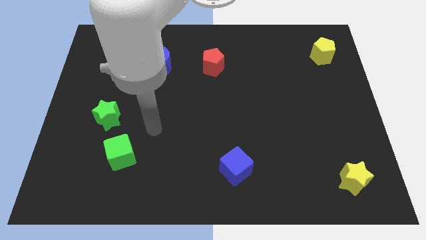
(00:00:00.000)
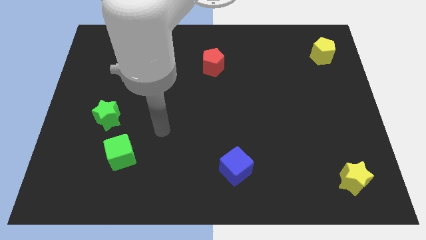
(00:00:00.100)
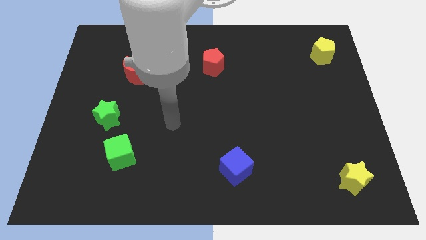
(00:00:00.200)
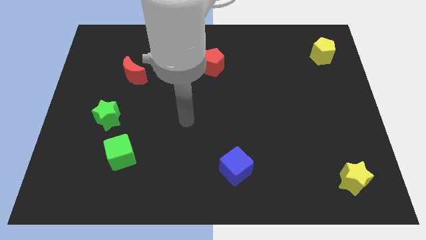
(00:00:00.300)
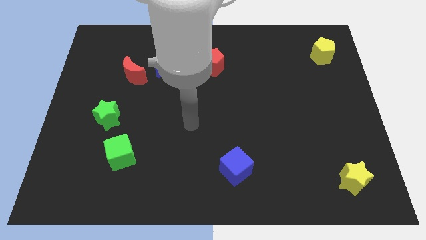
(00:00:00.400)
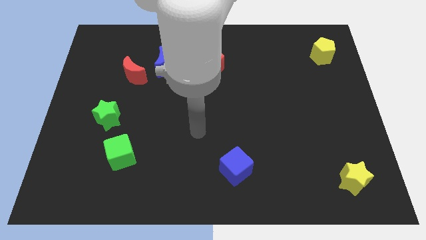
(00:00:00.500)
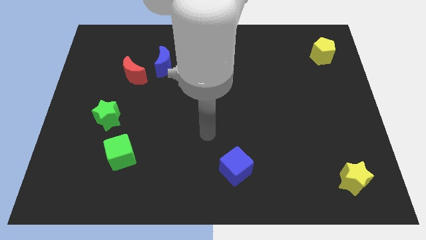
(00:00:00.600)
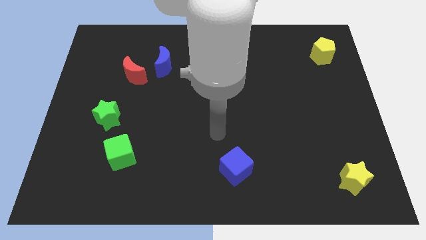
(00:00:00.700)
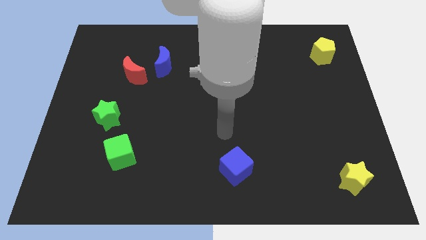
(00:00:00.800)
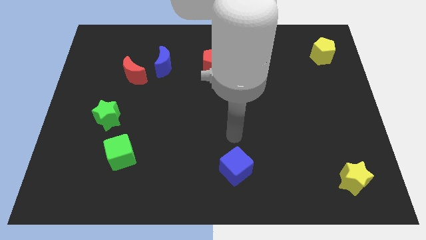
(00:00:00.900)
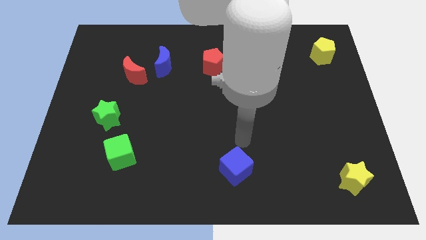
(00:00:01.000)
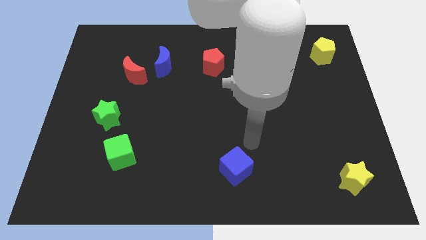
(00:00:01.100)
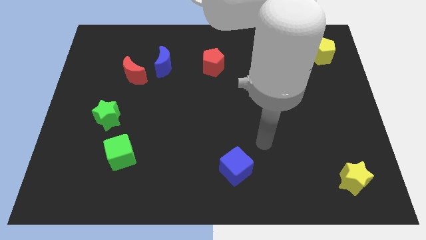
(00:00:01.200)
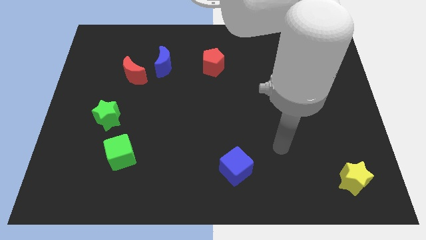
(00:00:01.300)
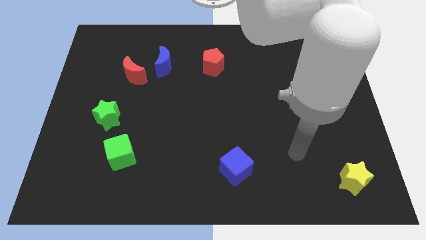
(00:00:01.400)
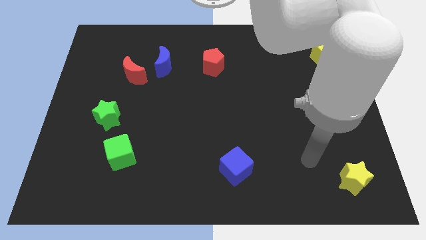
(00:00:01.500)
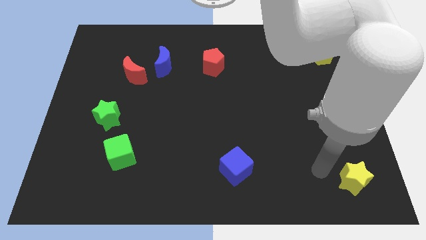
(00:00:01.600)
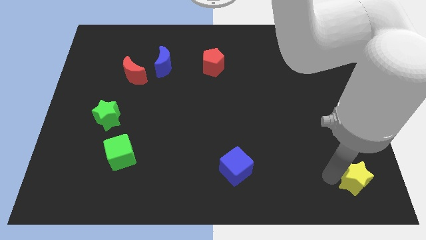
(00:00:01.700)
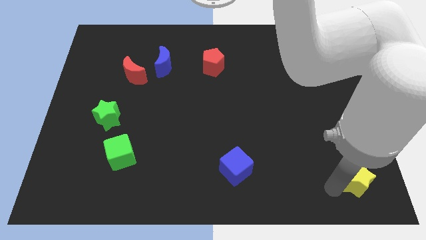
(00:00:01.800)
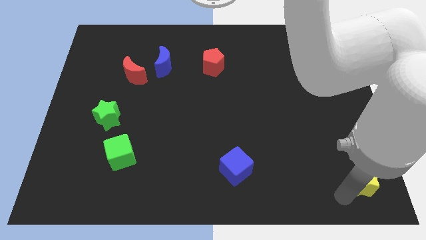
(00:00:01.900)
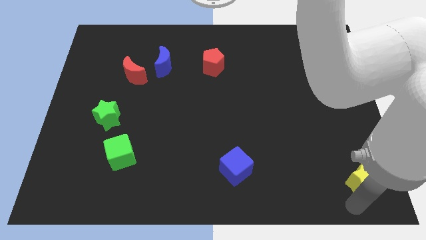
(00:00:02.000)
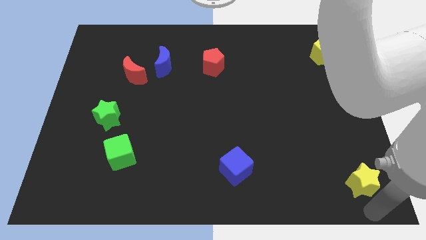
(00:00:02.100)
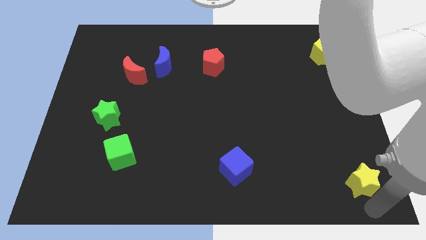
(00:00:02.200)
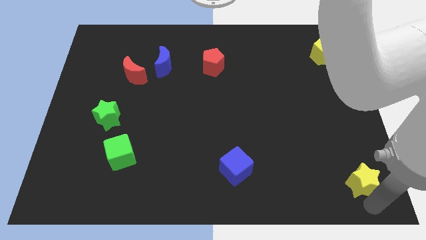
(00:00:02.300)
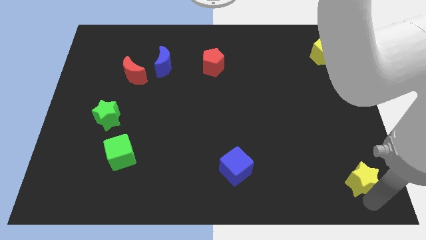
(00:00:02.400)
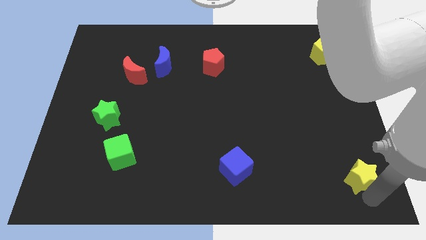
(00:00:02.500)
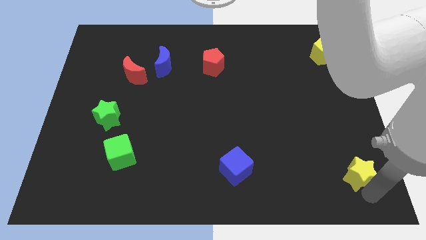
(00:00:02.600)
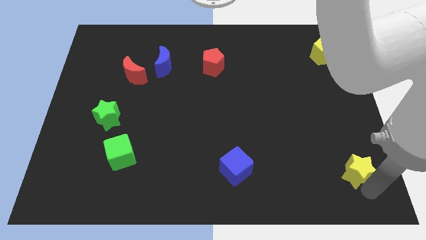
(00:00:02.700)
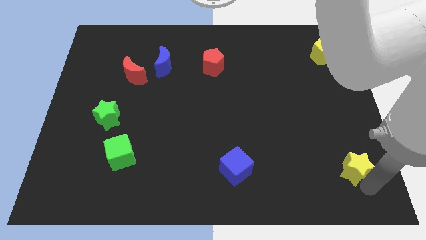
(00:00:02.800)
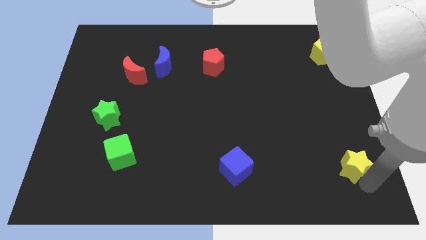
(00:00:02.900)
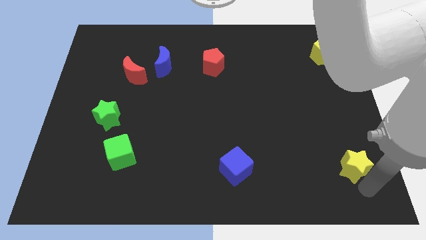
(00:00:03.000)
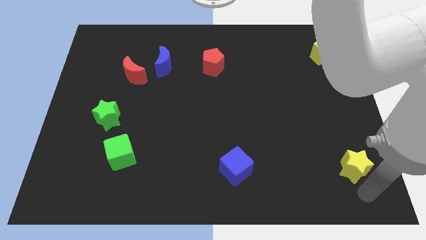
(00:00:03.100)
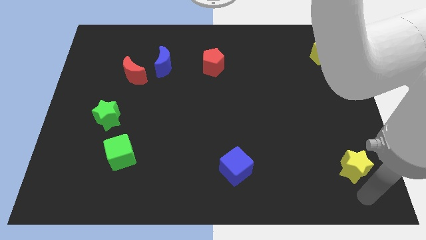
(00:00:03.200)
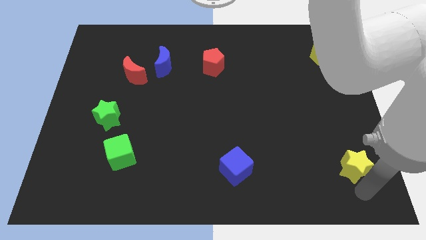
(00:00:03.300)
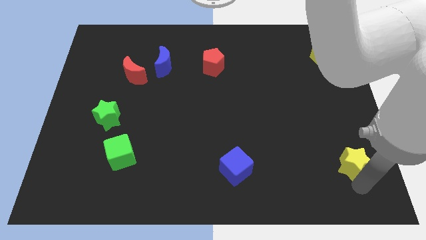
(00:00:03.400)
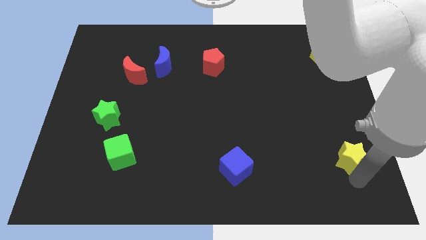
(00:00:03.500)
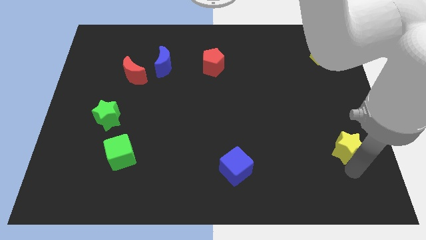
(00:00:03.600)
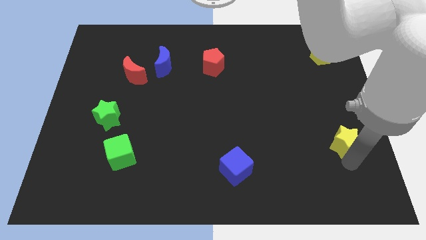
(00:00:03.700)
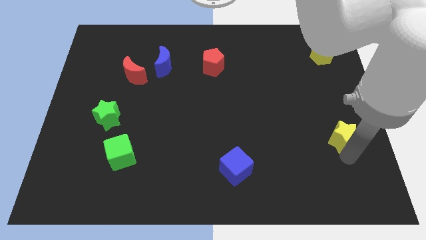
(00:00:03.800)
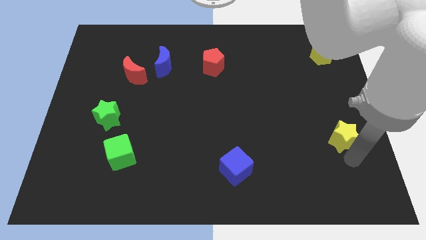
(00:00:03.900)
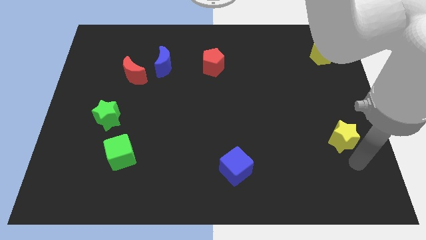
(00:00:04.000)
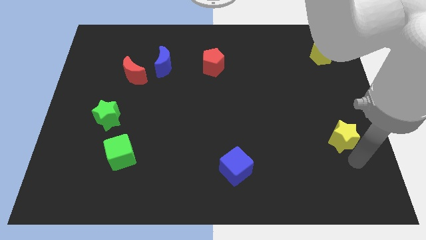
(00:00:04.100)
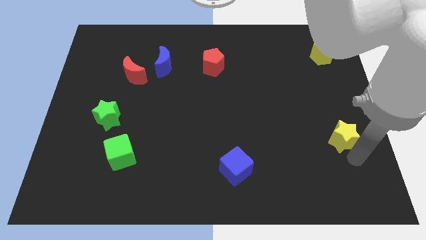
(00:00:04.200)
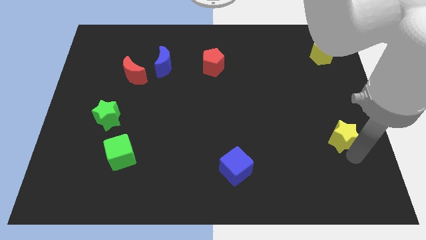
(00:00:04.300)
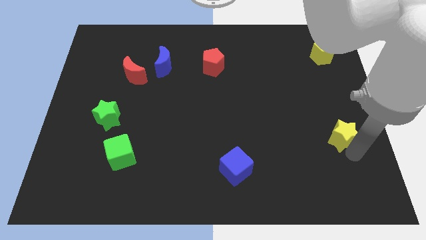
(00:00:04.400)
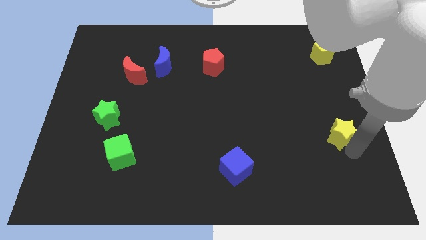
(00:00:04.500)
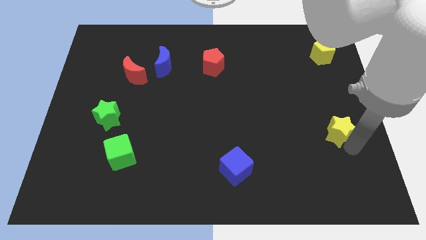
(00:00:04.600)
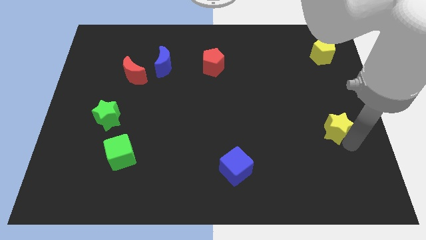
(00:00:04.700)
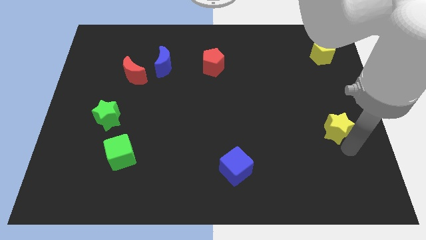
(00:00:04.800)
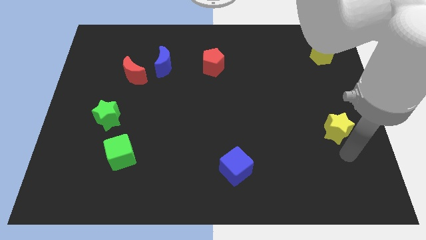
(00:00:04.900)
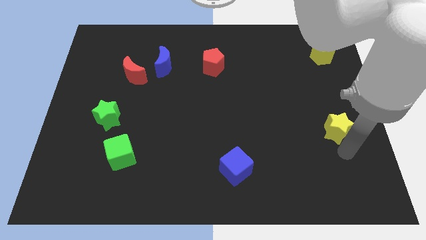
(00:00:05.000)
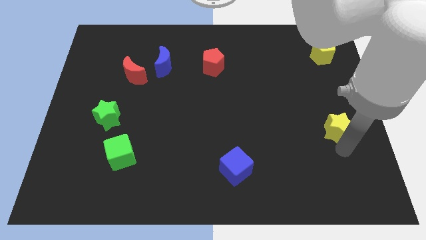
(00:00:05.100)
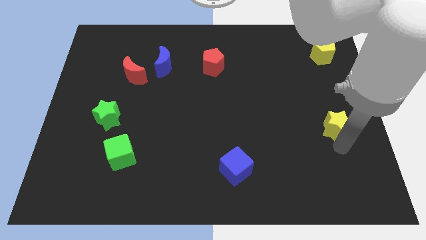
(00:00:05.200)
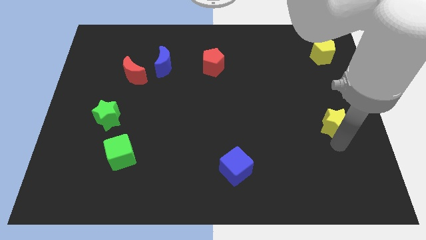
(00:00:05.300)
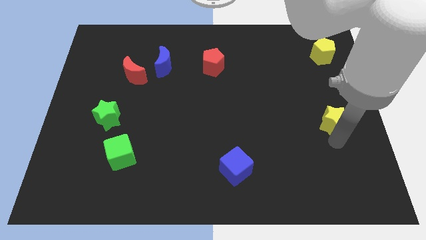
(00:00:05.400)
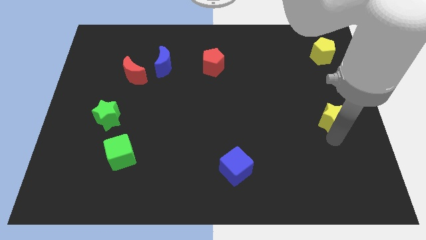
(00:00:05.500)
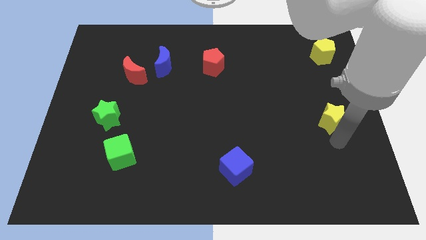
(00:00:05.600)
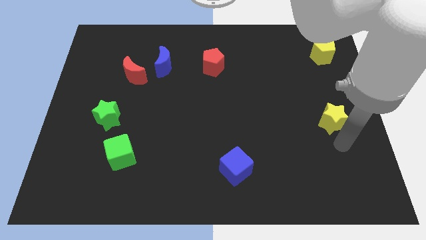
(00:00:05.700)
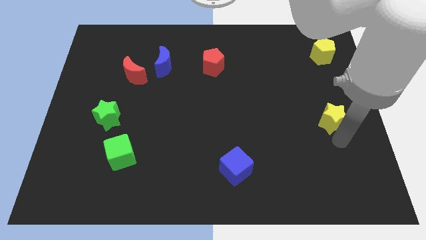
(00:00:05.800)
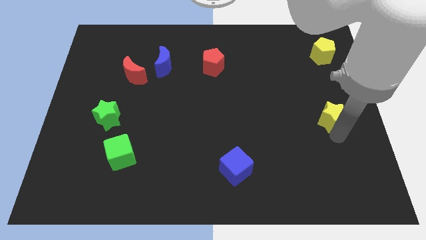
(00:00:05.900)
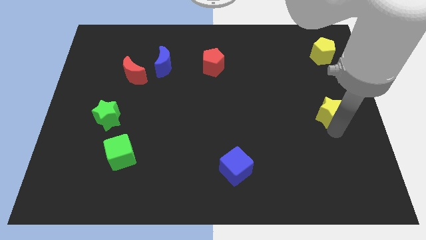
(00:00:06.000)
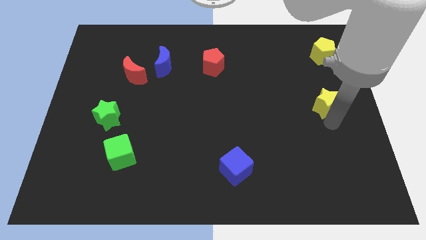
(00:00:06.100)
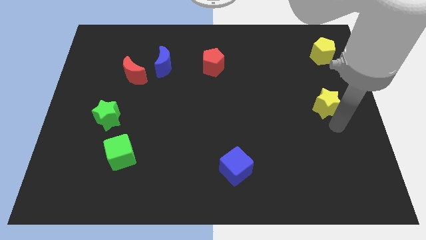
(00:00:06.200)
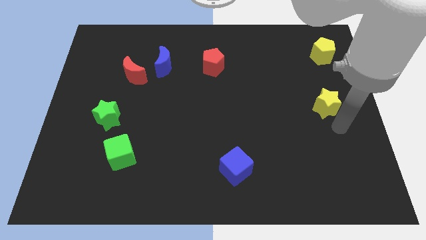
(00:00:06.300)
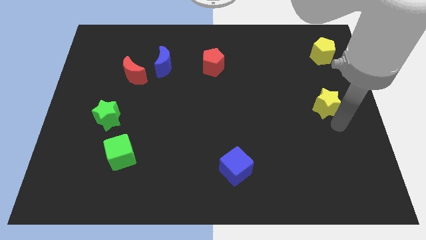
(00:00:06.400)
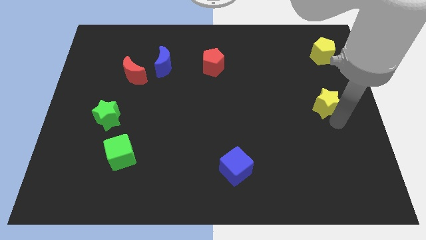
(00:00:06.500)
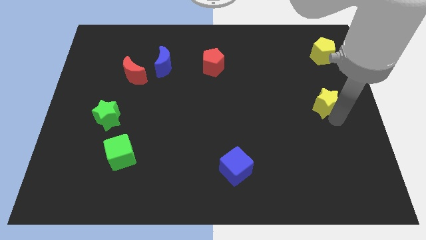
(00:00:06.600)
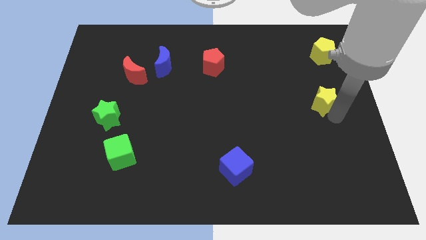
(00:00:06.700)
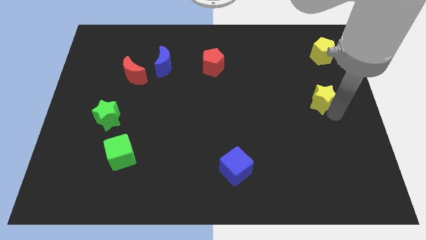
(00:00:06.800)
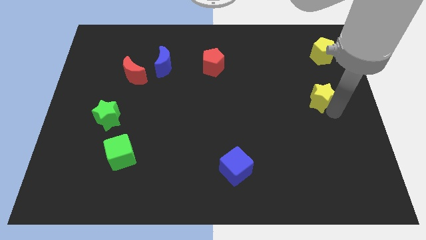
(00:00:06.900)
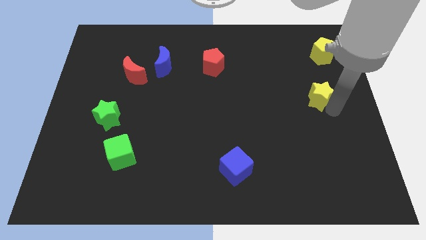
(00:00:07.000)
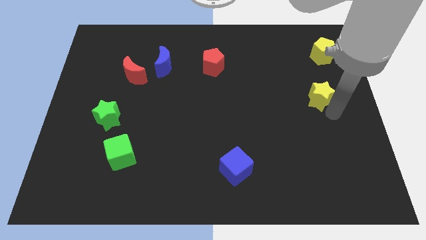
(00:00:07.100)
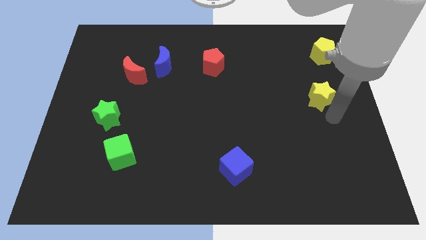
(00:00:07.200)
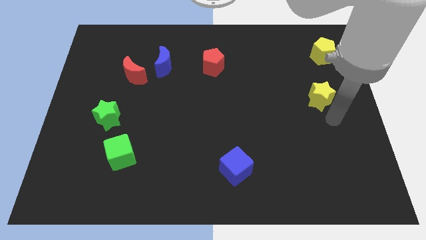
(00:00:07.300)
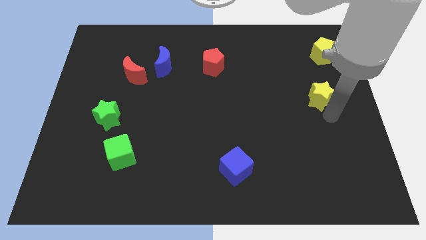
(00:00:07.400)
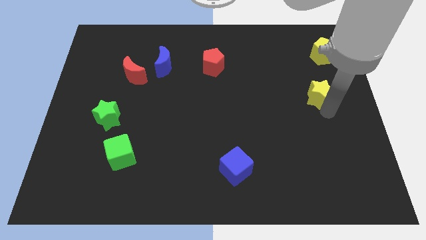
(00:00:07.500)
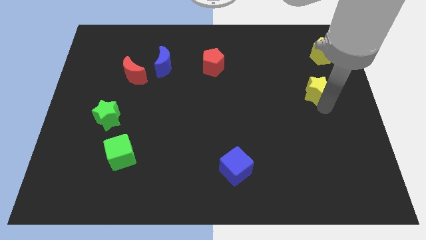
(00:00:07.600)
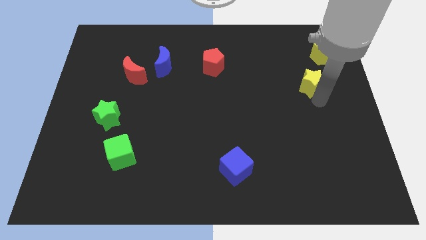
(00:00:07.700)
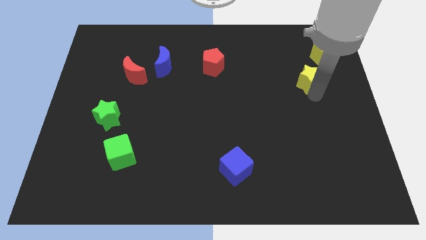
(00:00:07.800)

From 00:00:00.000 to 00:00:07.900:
move the yellow star diagonally down and to the left of the yellow pentagon
